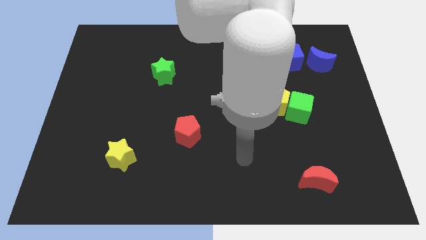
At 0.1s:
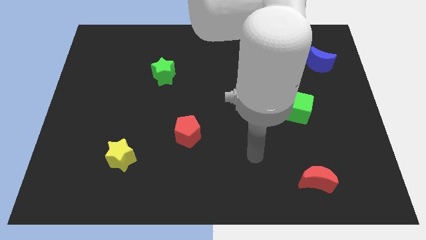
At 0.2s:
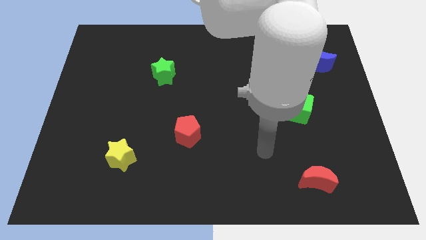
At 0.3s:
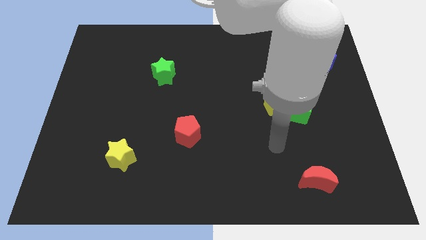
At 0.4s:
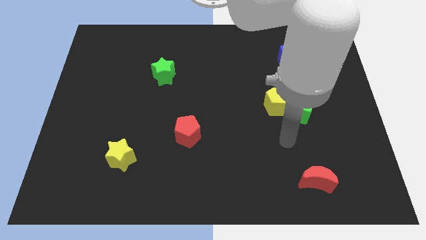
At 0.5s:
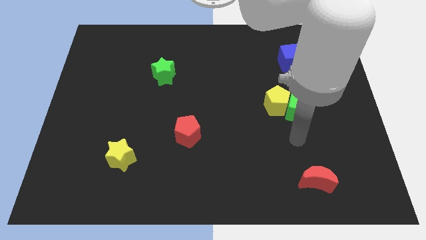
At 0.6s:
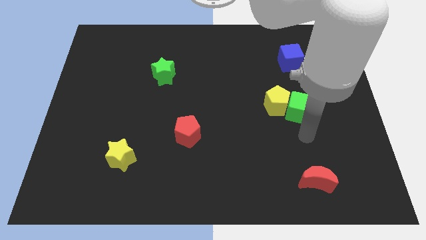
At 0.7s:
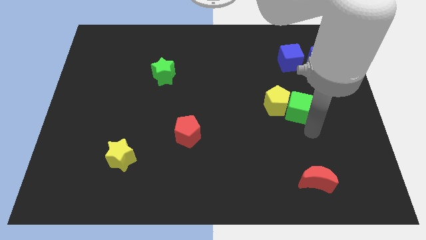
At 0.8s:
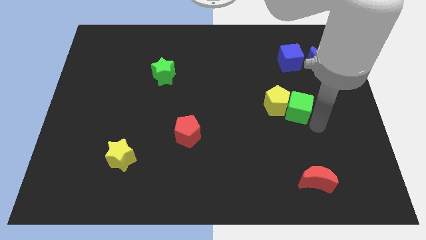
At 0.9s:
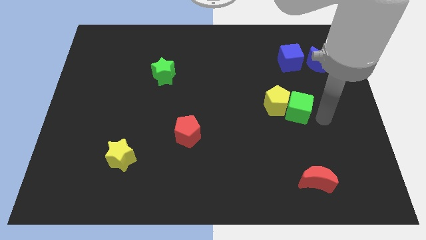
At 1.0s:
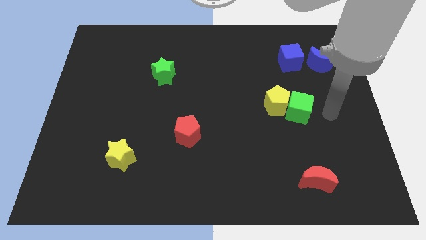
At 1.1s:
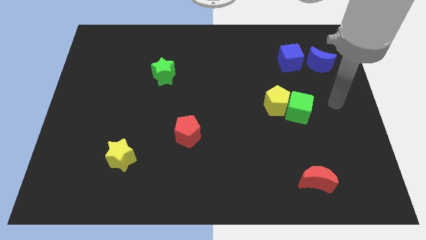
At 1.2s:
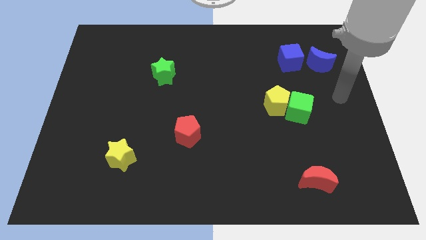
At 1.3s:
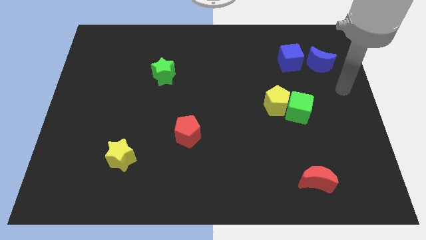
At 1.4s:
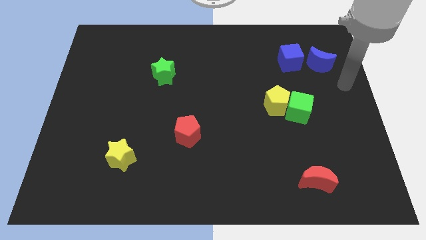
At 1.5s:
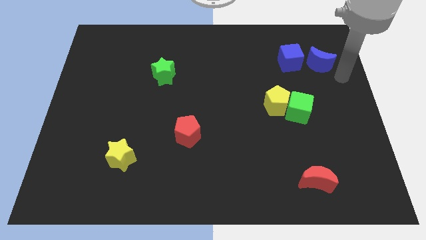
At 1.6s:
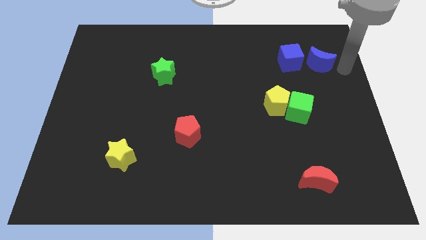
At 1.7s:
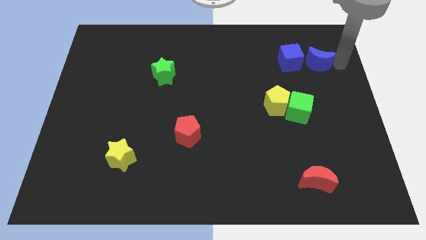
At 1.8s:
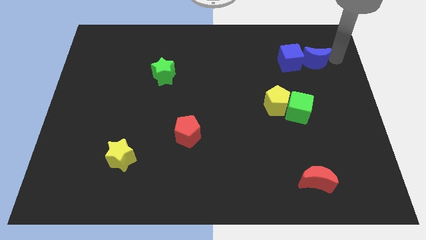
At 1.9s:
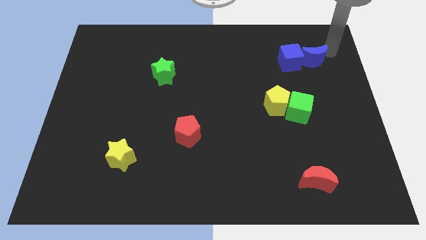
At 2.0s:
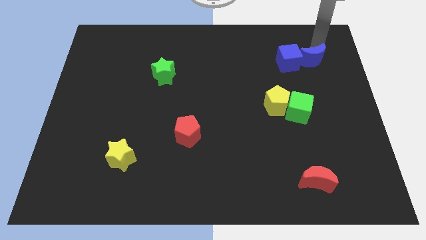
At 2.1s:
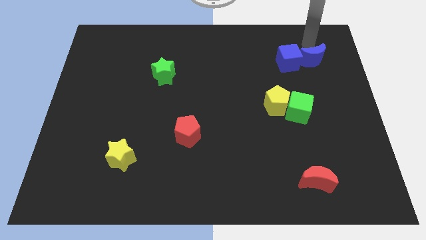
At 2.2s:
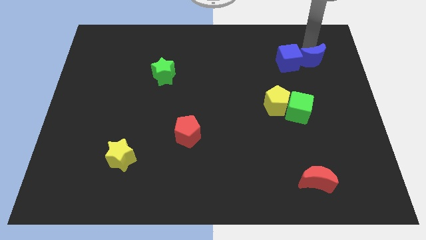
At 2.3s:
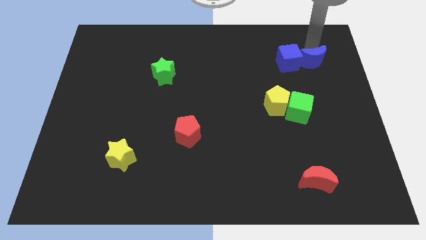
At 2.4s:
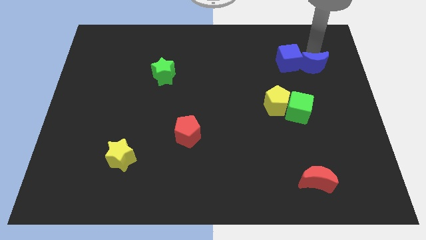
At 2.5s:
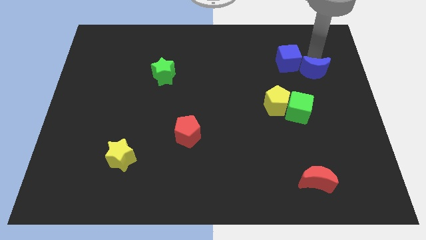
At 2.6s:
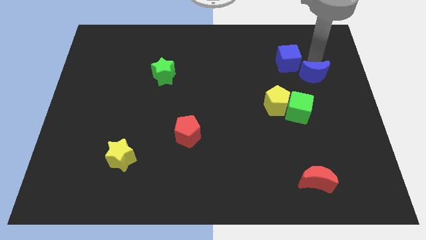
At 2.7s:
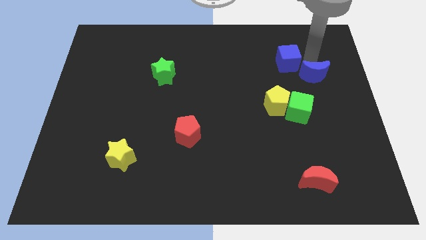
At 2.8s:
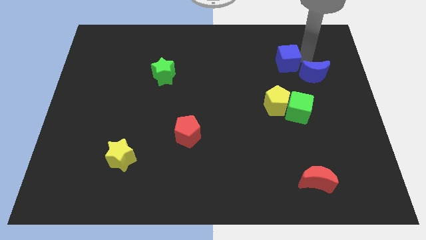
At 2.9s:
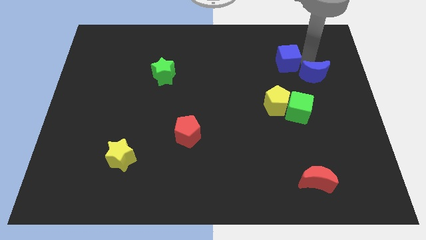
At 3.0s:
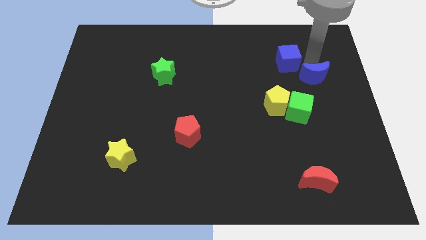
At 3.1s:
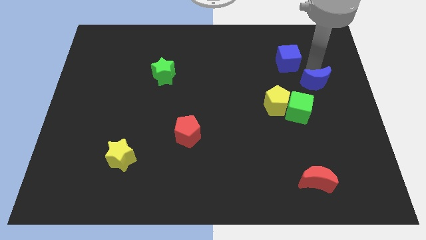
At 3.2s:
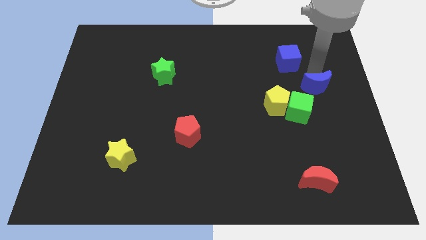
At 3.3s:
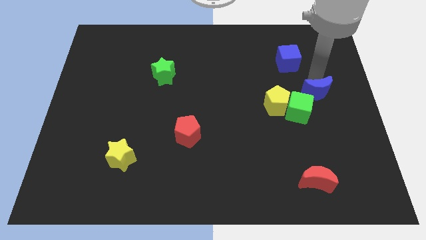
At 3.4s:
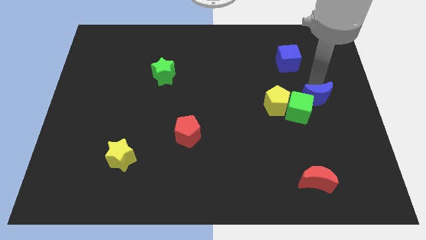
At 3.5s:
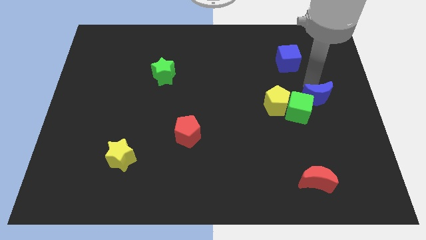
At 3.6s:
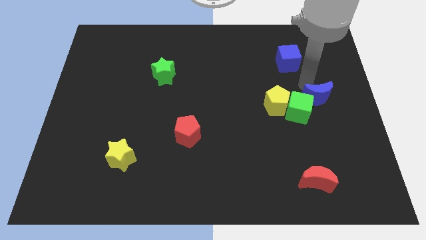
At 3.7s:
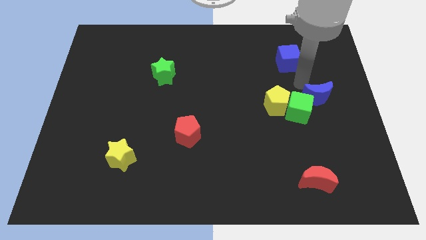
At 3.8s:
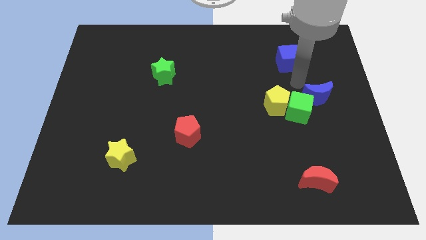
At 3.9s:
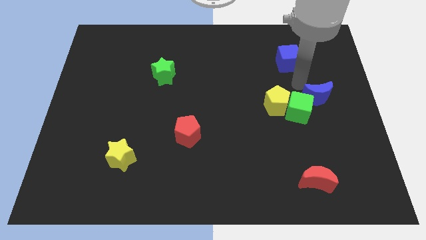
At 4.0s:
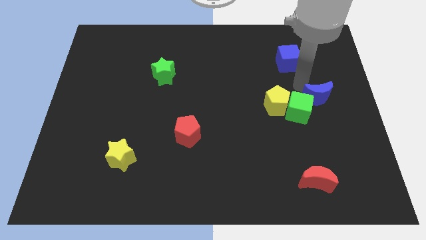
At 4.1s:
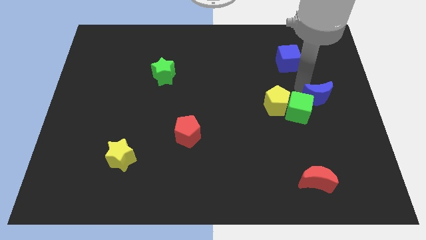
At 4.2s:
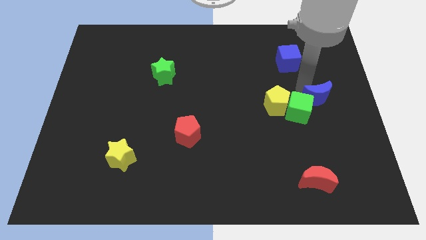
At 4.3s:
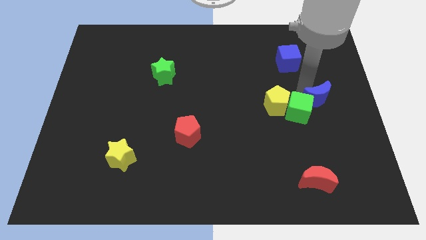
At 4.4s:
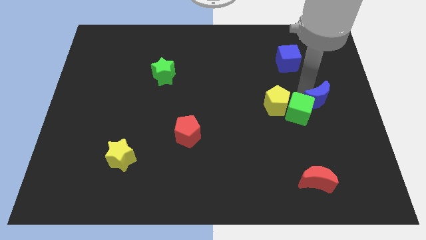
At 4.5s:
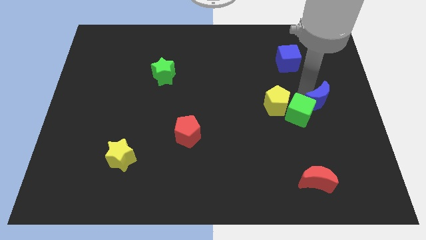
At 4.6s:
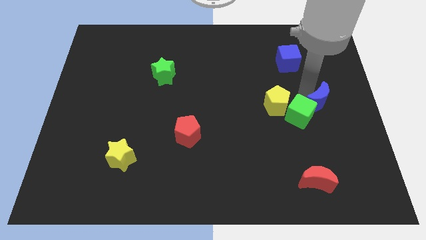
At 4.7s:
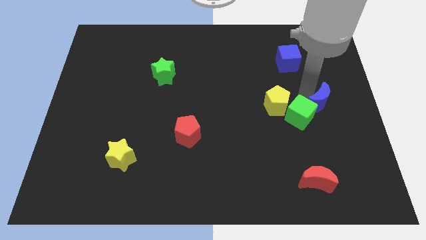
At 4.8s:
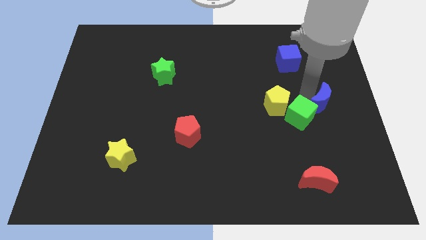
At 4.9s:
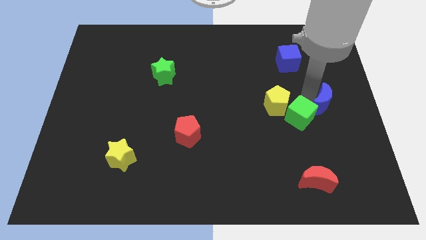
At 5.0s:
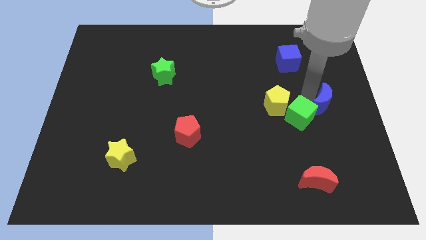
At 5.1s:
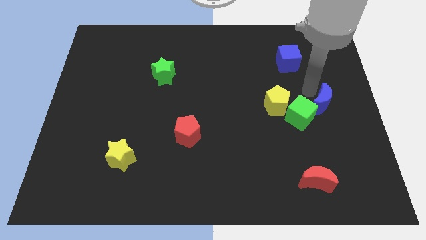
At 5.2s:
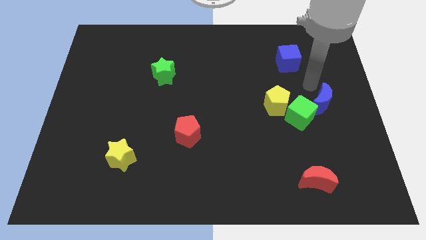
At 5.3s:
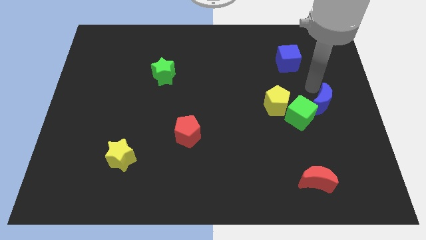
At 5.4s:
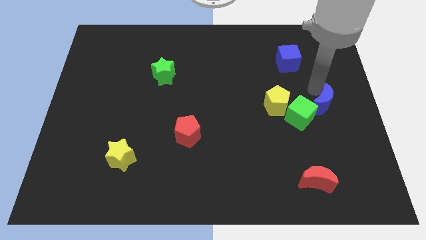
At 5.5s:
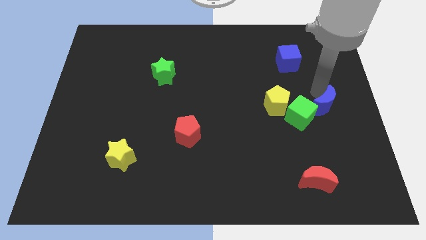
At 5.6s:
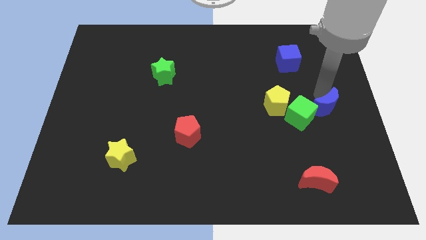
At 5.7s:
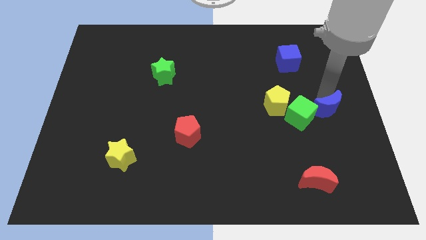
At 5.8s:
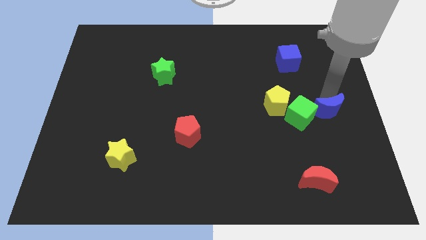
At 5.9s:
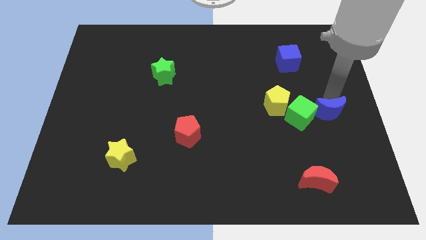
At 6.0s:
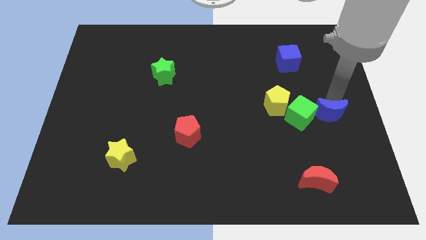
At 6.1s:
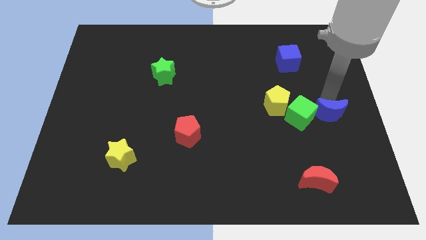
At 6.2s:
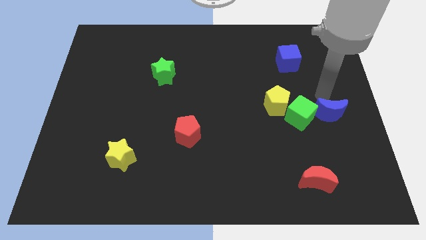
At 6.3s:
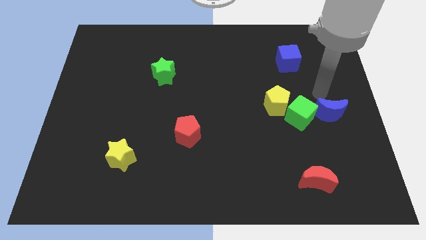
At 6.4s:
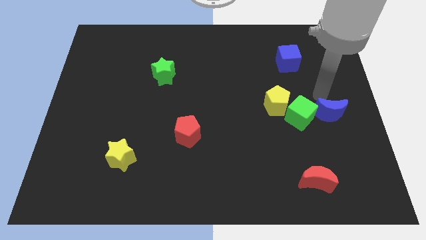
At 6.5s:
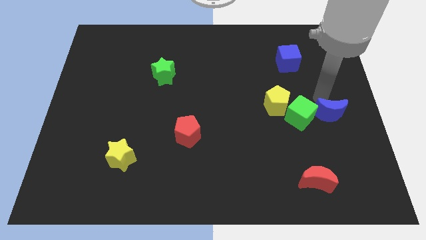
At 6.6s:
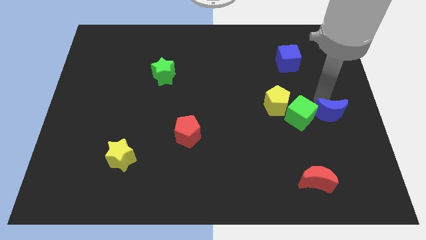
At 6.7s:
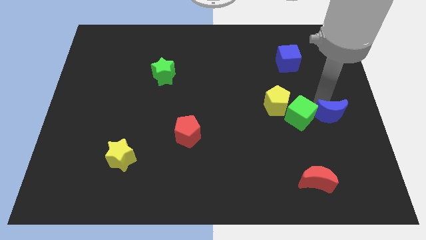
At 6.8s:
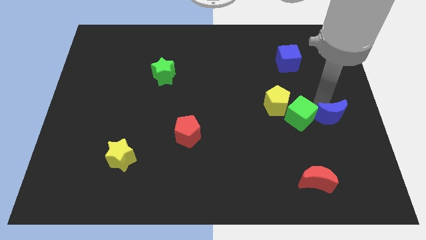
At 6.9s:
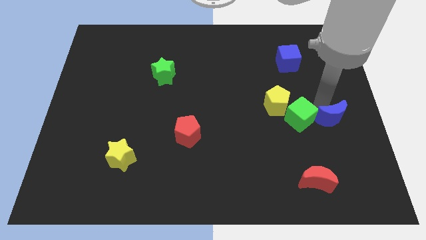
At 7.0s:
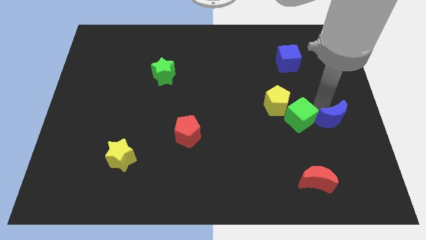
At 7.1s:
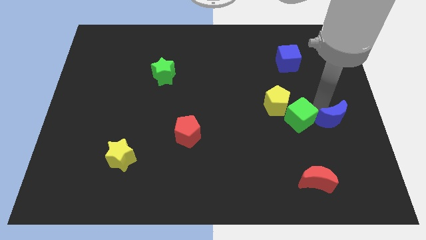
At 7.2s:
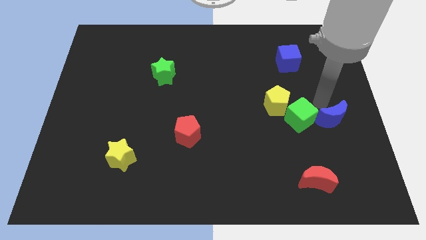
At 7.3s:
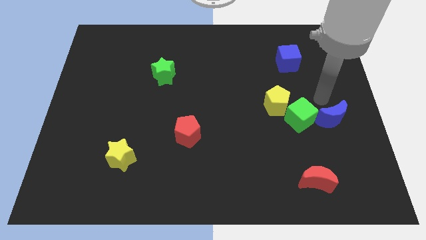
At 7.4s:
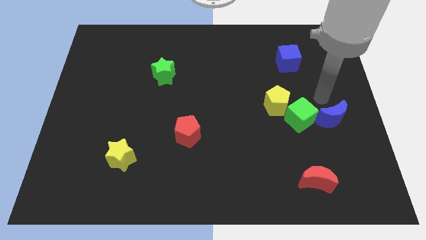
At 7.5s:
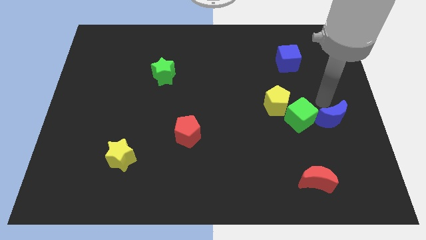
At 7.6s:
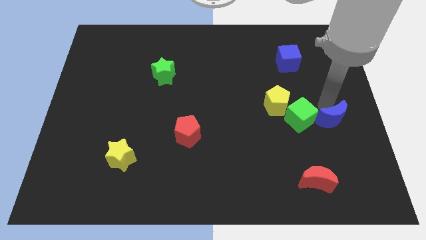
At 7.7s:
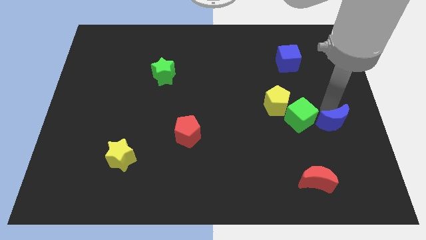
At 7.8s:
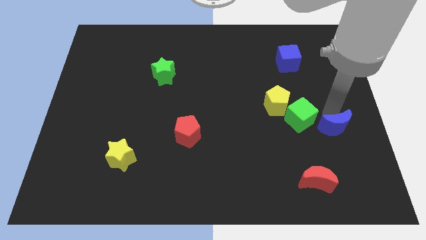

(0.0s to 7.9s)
push the blue moon down

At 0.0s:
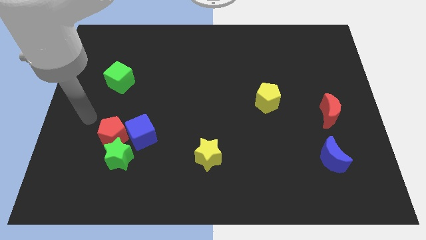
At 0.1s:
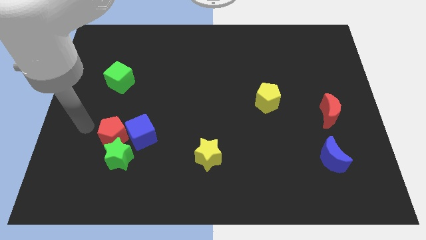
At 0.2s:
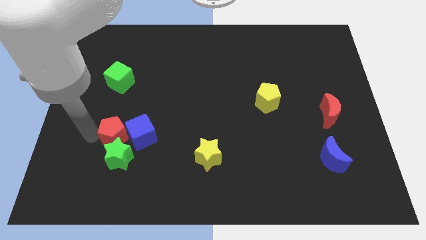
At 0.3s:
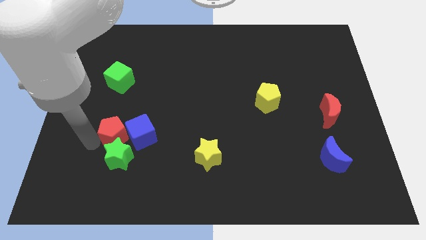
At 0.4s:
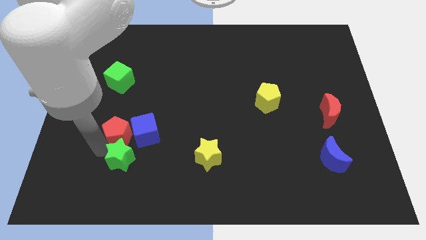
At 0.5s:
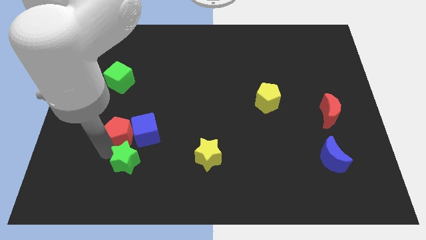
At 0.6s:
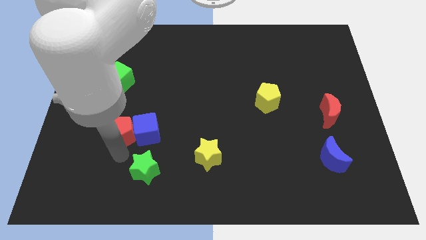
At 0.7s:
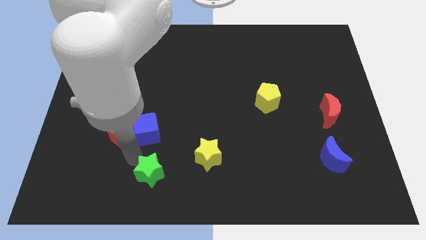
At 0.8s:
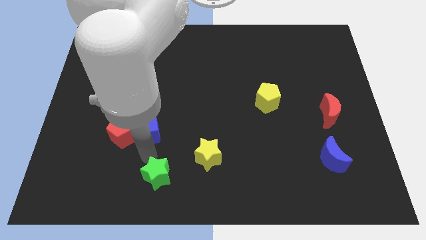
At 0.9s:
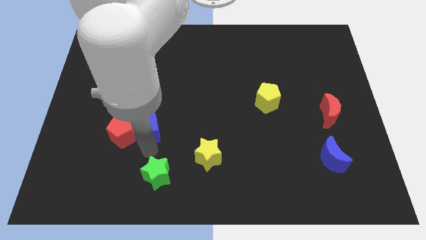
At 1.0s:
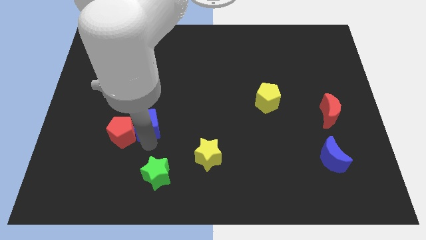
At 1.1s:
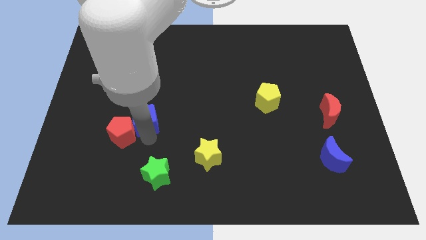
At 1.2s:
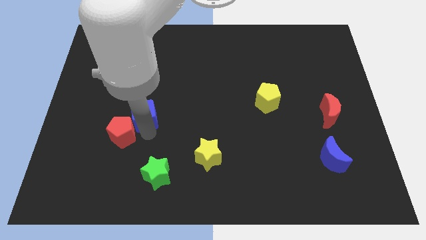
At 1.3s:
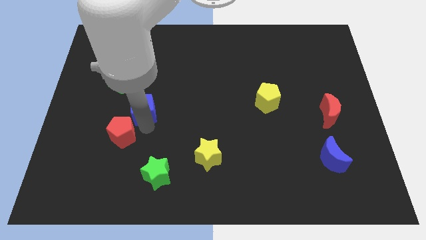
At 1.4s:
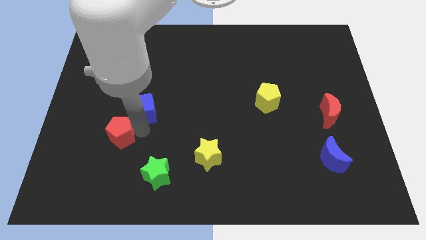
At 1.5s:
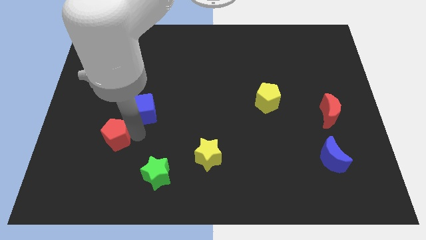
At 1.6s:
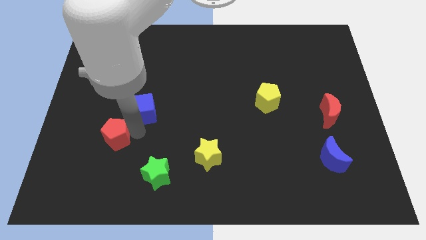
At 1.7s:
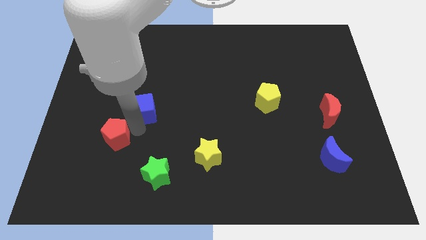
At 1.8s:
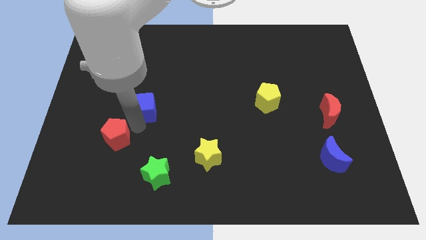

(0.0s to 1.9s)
slide the blue cube upwards a little bit
